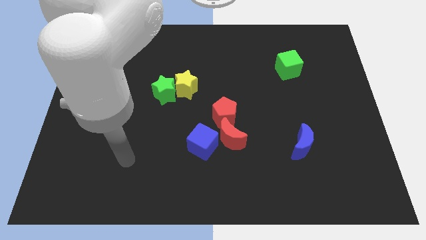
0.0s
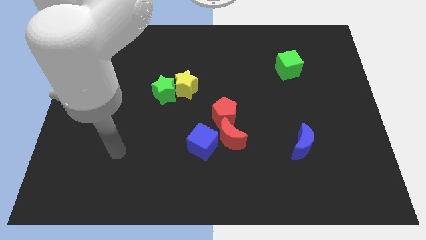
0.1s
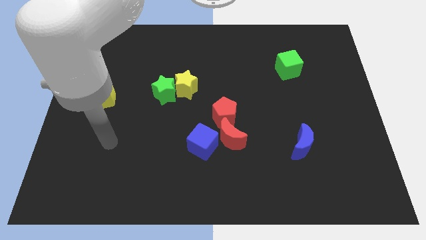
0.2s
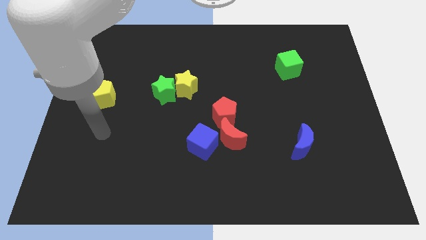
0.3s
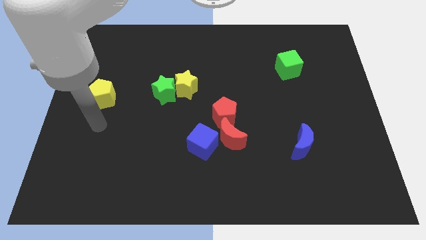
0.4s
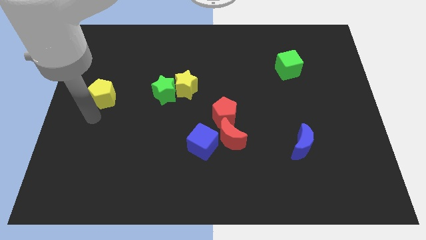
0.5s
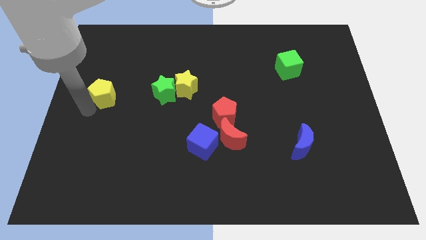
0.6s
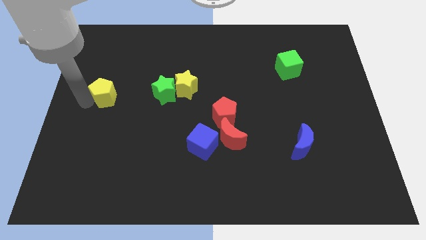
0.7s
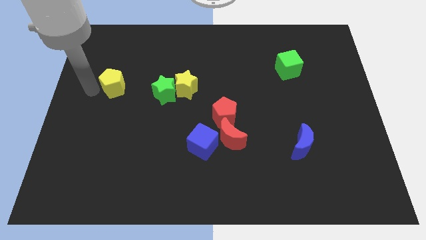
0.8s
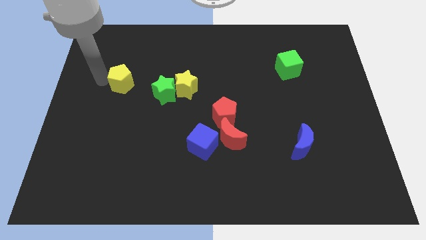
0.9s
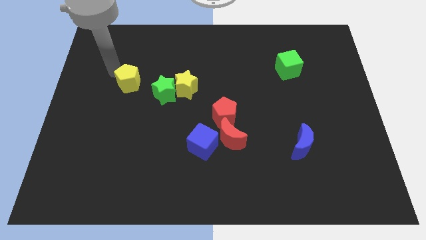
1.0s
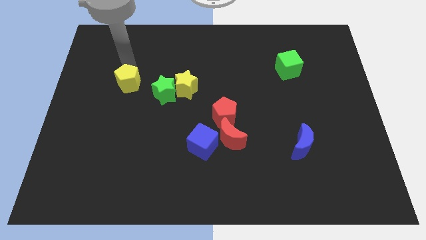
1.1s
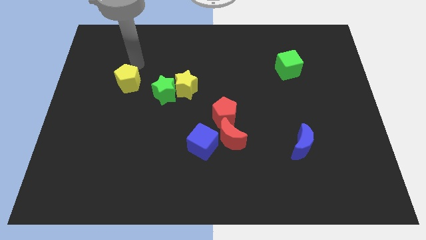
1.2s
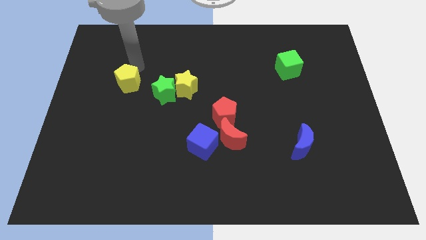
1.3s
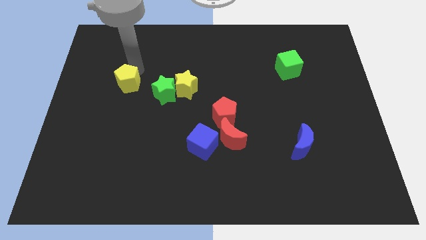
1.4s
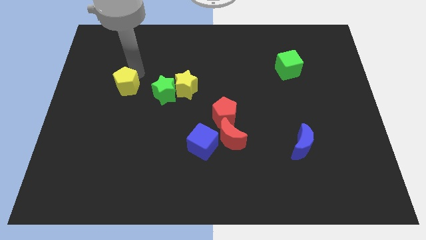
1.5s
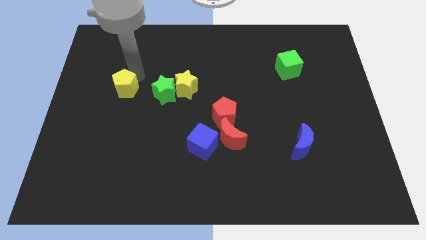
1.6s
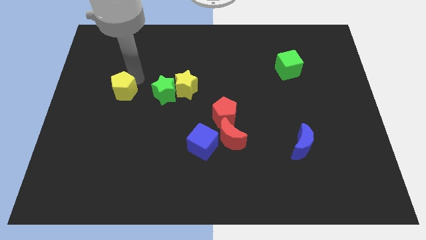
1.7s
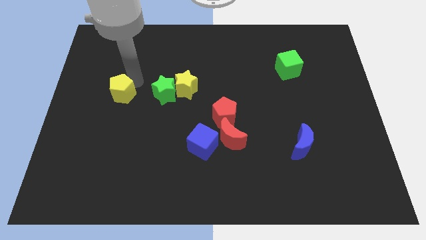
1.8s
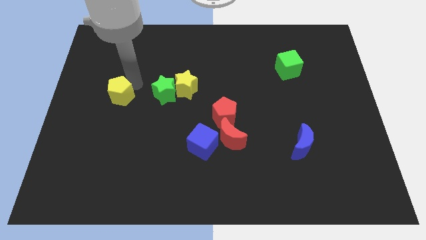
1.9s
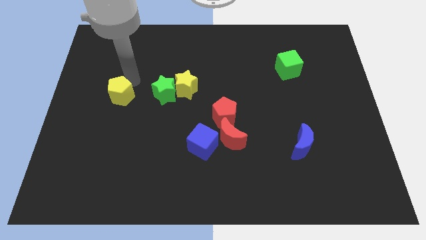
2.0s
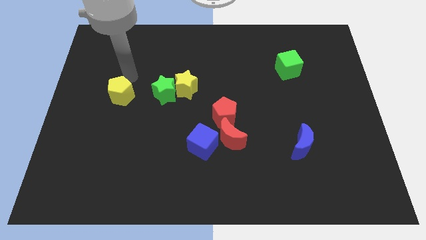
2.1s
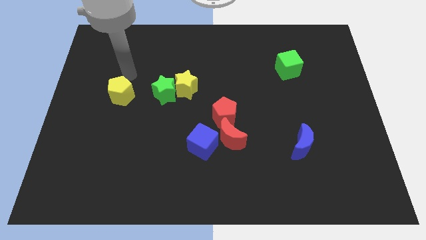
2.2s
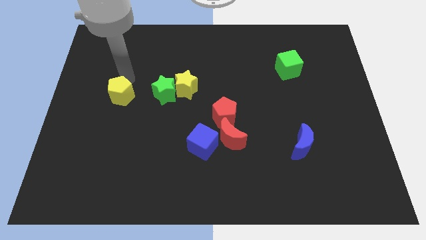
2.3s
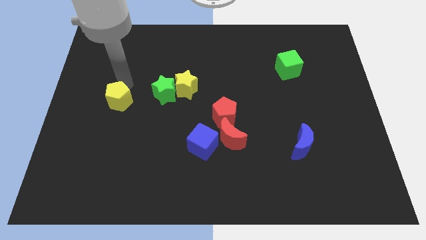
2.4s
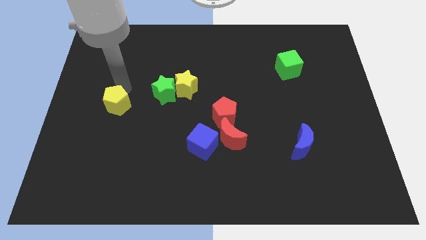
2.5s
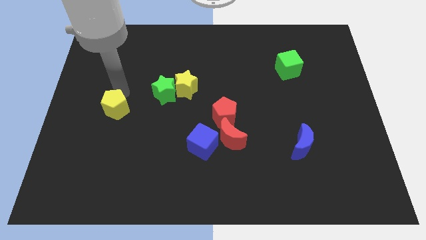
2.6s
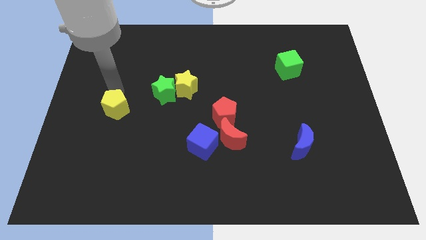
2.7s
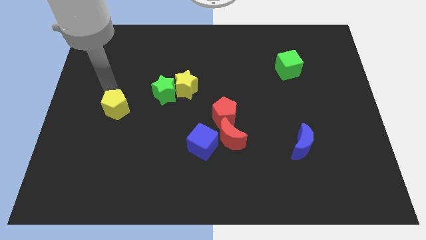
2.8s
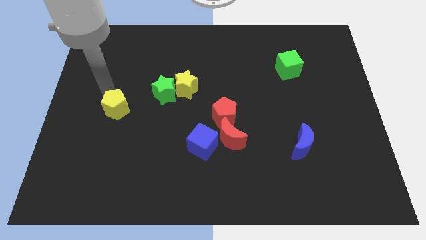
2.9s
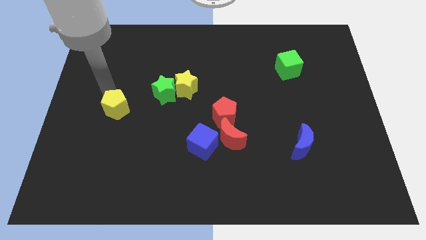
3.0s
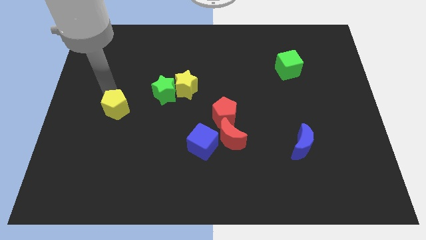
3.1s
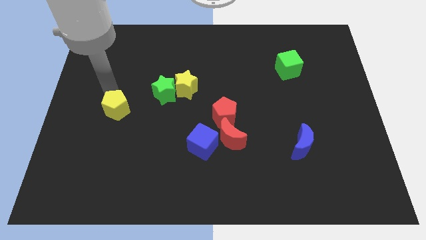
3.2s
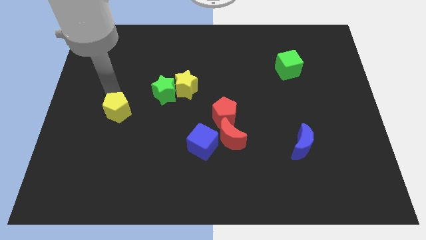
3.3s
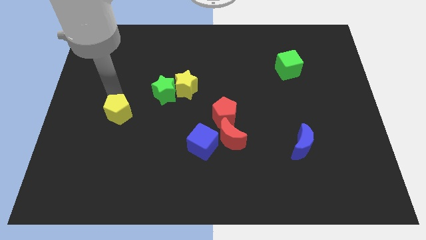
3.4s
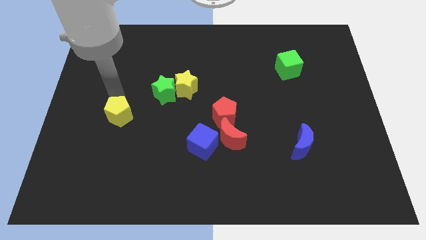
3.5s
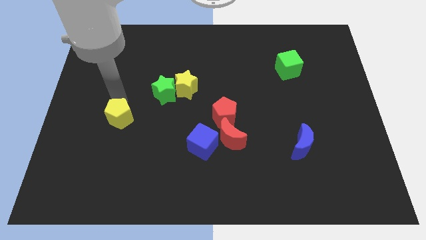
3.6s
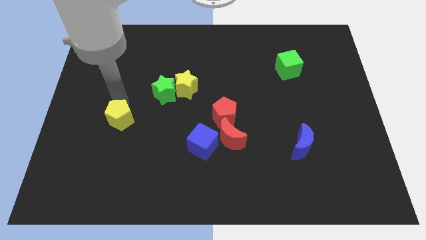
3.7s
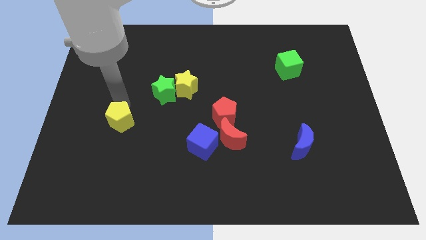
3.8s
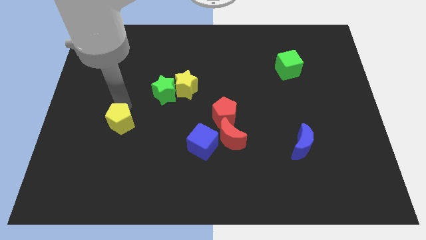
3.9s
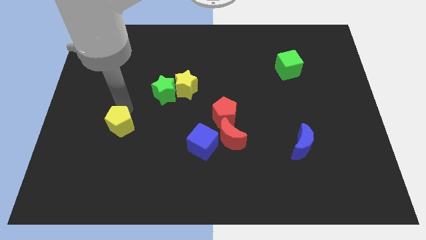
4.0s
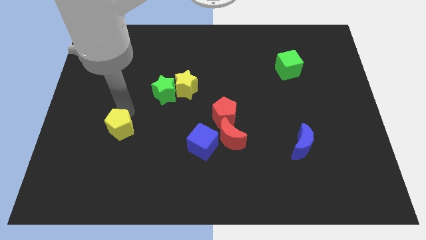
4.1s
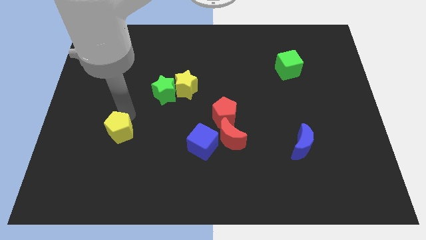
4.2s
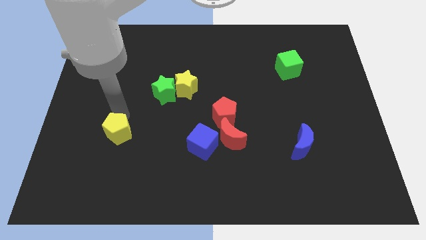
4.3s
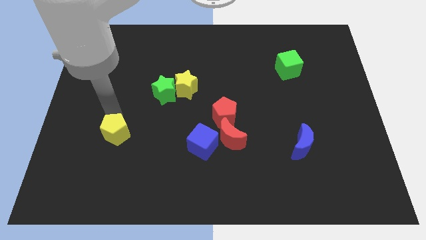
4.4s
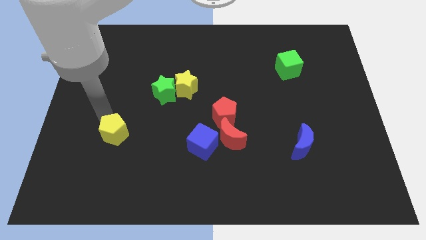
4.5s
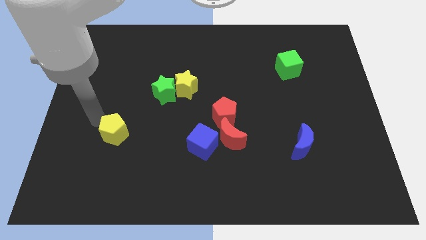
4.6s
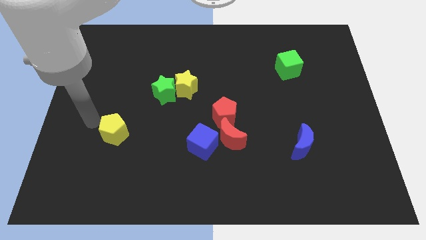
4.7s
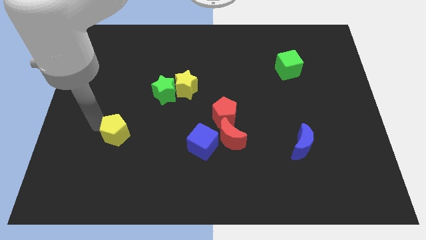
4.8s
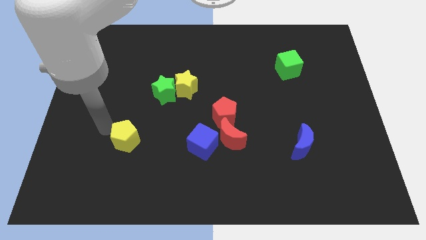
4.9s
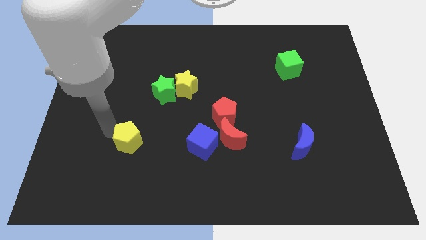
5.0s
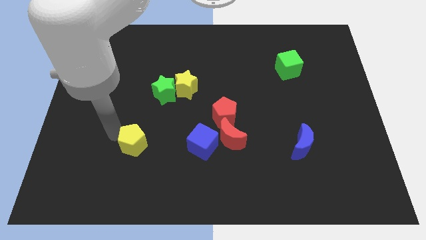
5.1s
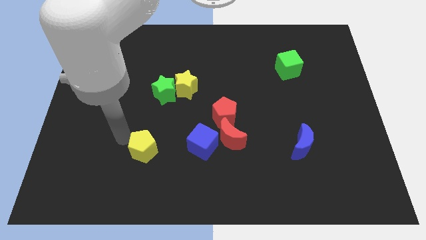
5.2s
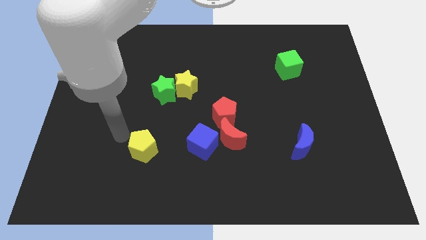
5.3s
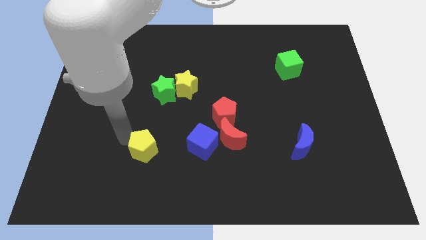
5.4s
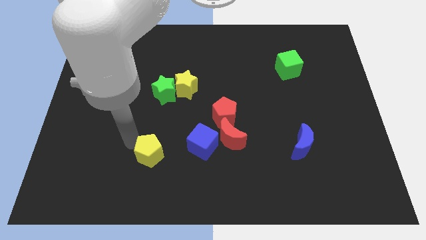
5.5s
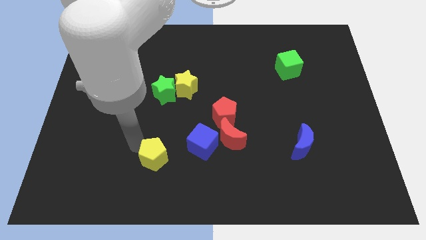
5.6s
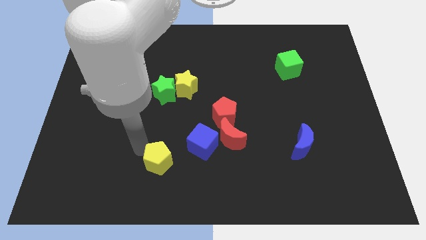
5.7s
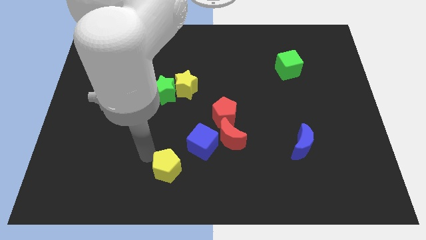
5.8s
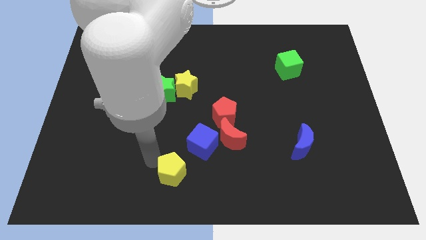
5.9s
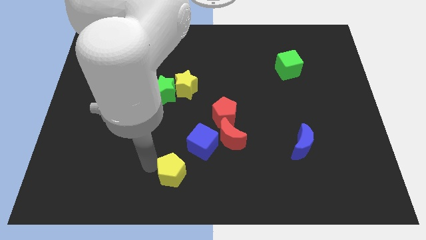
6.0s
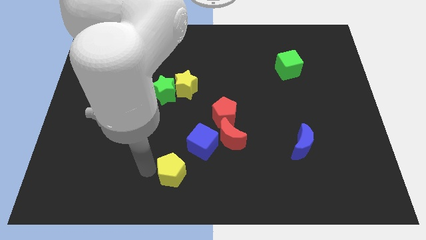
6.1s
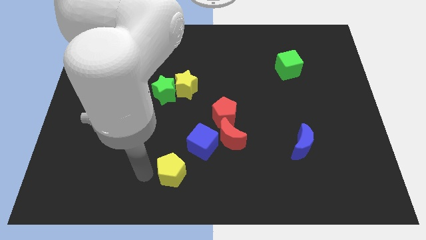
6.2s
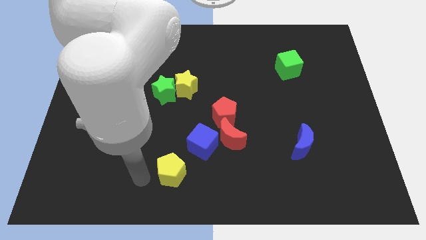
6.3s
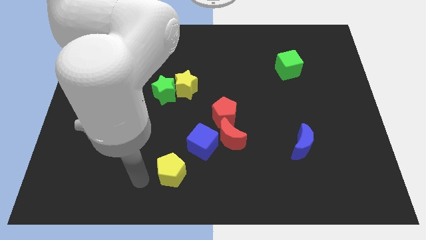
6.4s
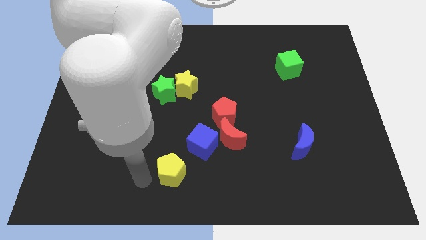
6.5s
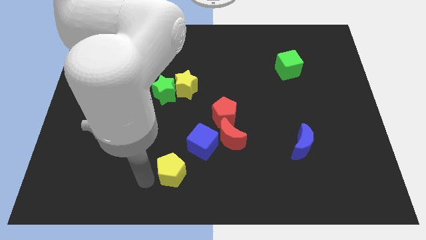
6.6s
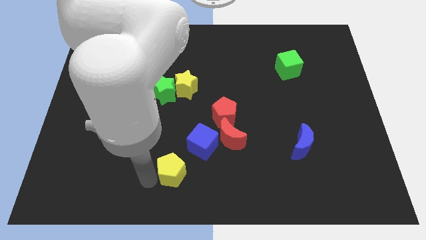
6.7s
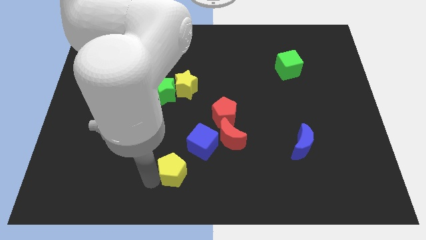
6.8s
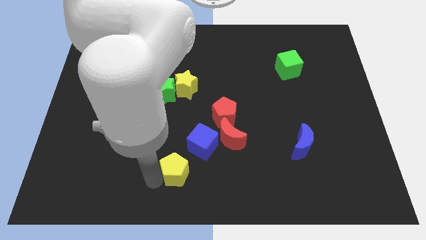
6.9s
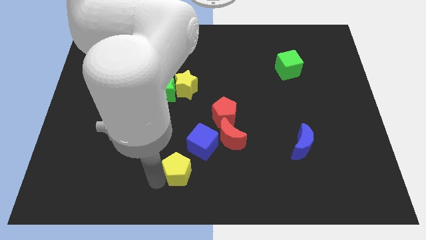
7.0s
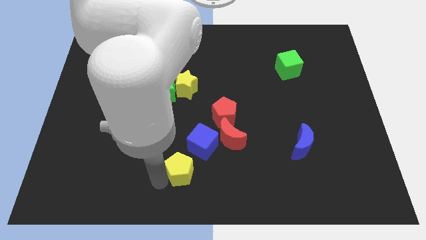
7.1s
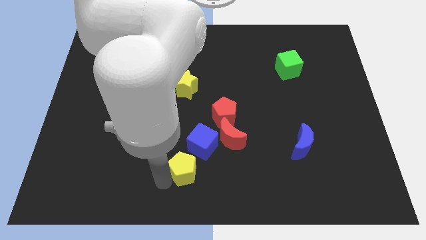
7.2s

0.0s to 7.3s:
slide the yellow pentagon to the bottom left of the red moon

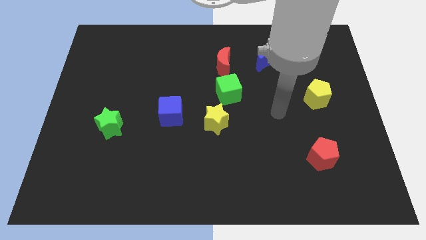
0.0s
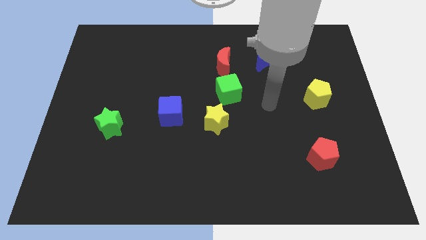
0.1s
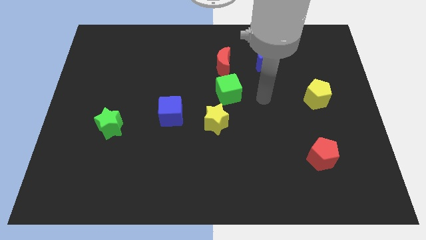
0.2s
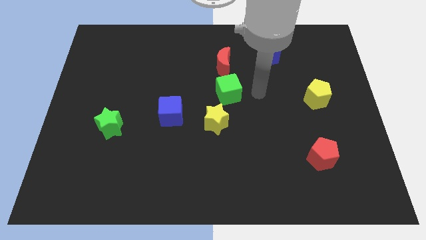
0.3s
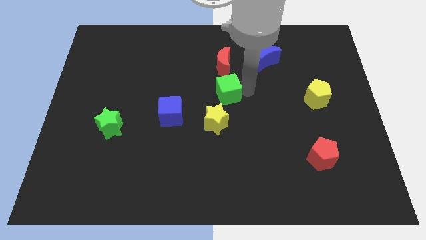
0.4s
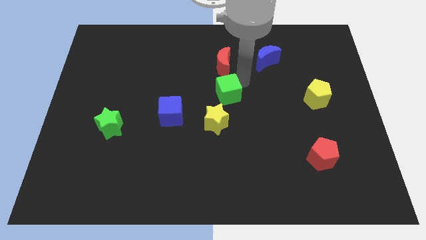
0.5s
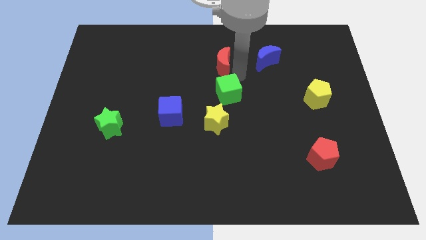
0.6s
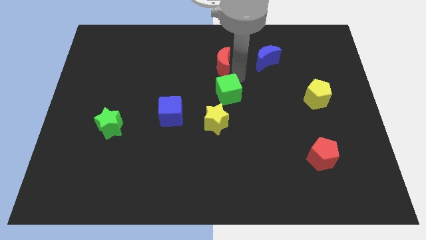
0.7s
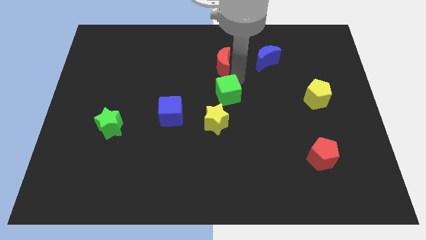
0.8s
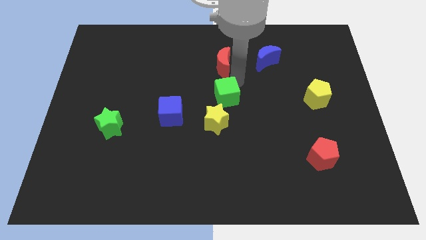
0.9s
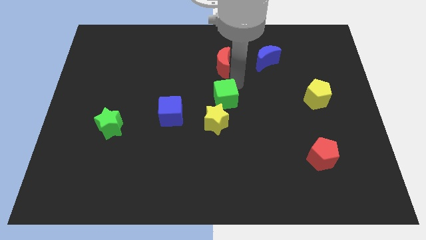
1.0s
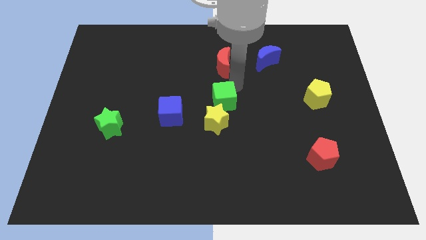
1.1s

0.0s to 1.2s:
push the green cube to the right of the blue cube

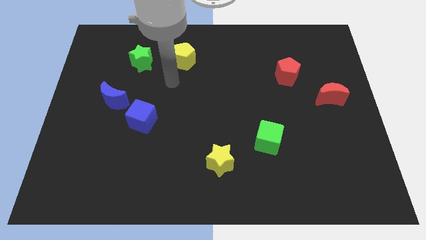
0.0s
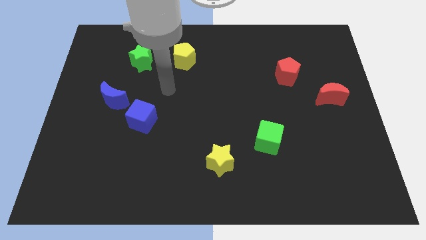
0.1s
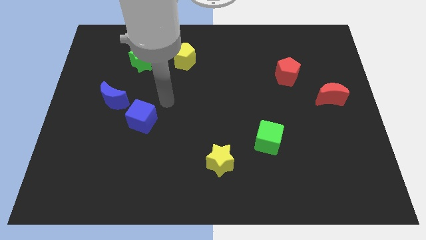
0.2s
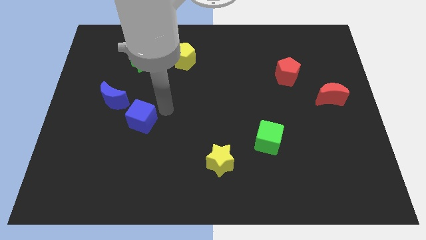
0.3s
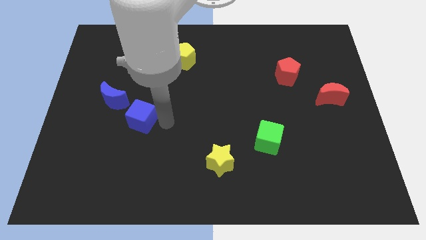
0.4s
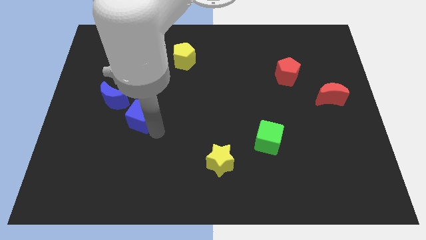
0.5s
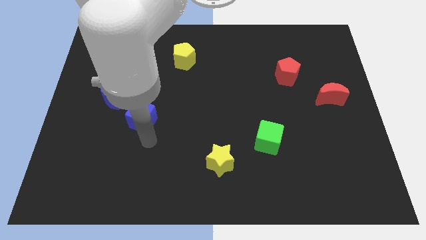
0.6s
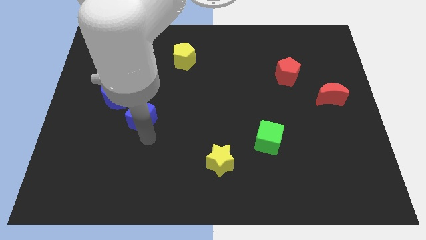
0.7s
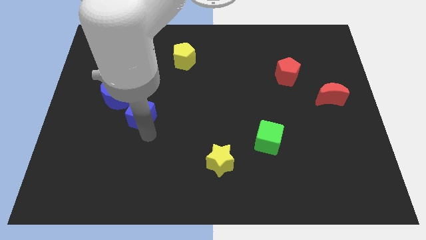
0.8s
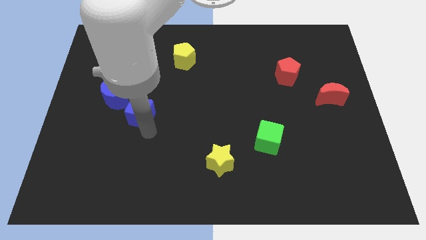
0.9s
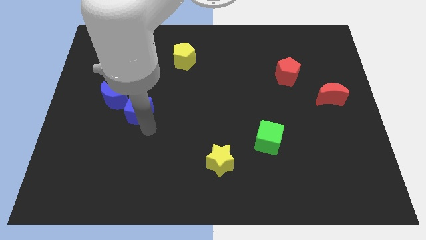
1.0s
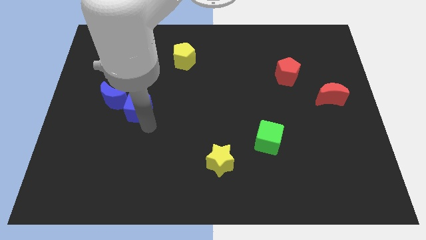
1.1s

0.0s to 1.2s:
slide the blue cube below the green star
